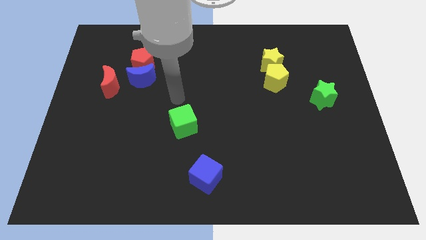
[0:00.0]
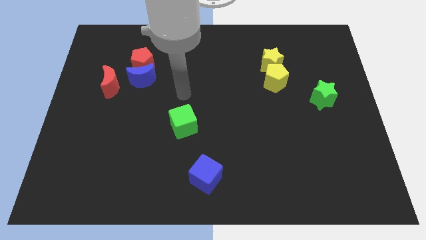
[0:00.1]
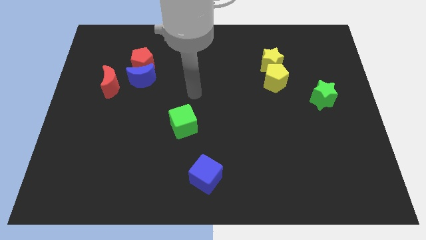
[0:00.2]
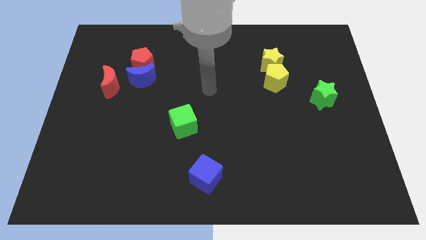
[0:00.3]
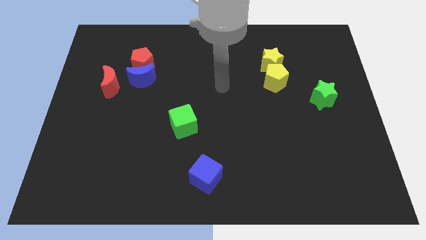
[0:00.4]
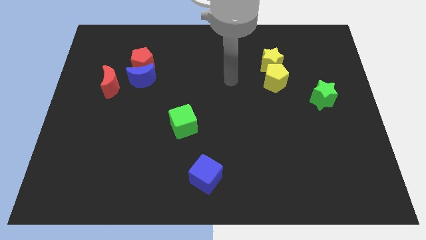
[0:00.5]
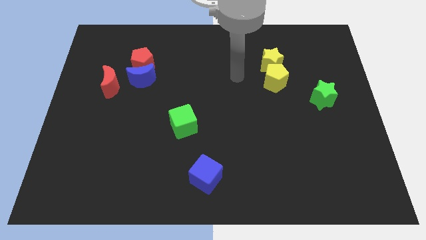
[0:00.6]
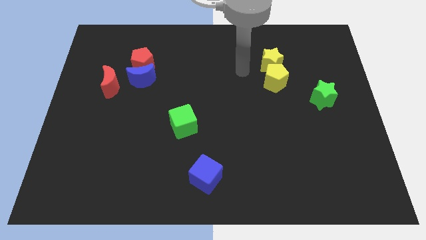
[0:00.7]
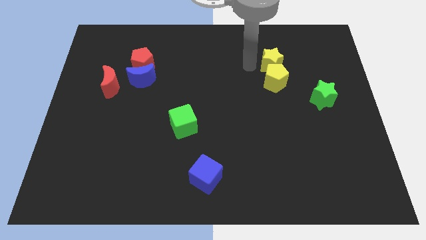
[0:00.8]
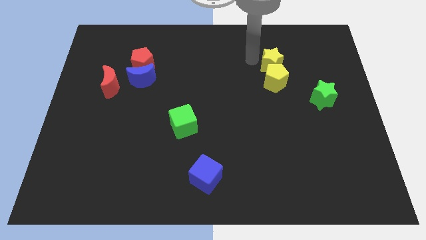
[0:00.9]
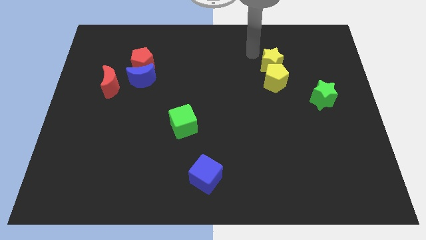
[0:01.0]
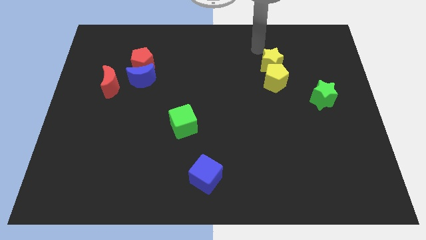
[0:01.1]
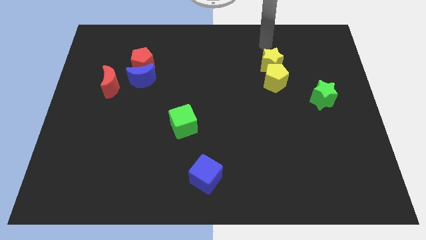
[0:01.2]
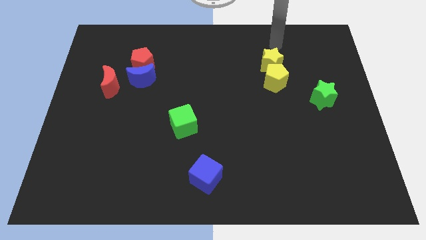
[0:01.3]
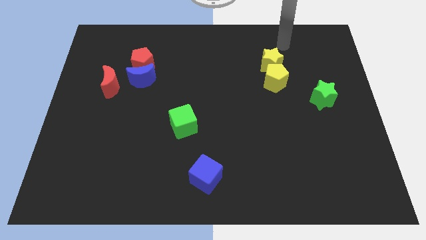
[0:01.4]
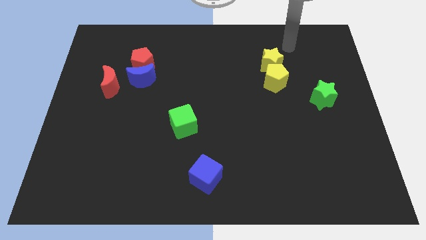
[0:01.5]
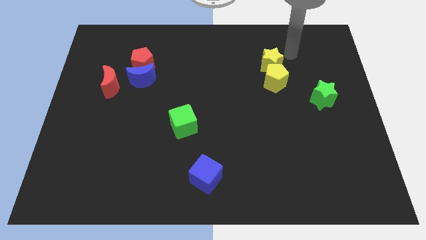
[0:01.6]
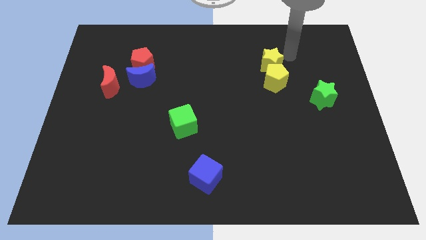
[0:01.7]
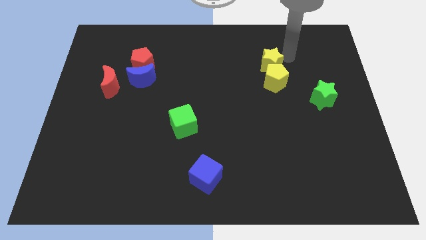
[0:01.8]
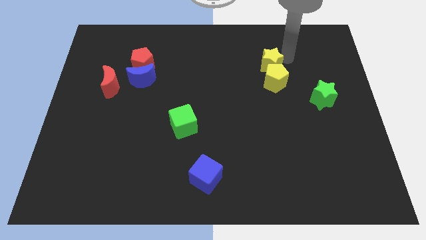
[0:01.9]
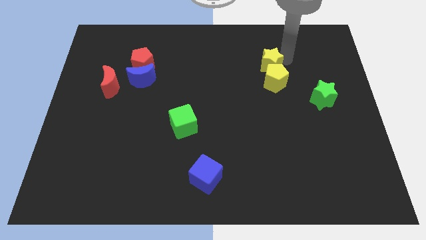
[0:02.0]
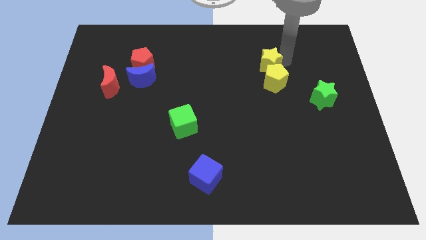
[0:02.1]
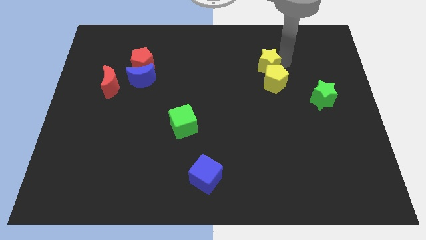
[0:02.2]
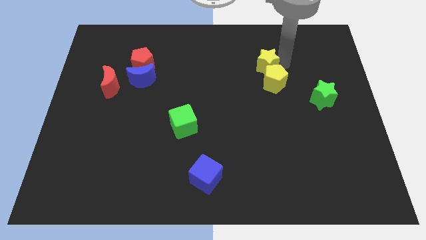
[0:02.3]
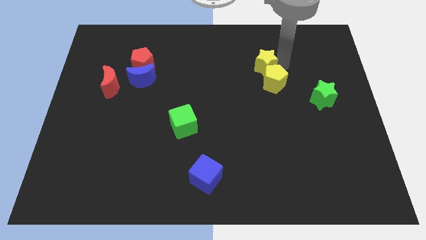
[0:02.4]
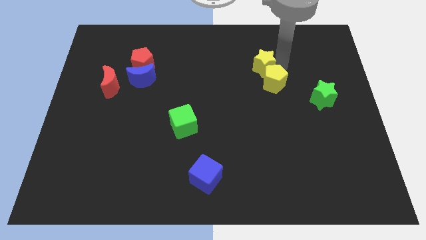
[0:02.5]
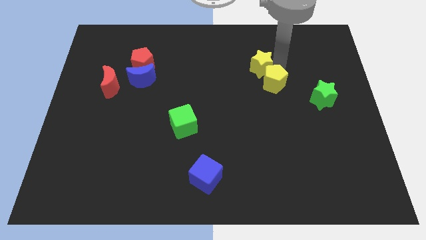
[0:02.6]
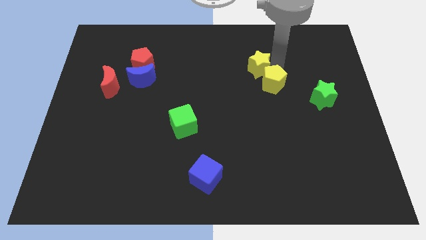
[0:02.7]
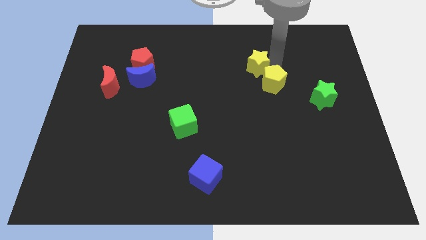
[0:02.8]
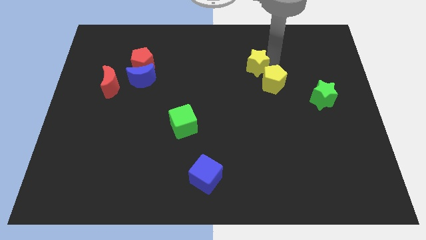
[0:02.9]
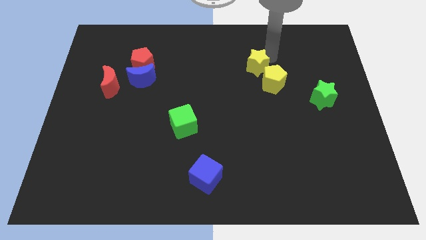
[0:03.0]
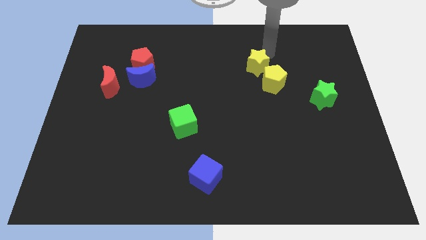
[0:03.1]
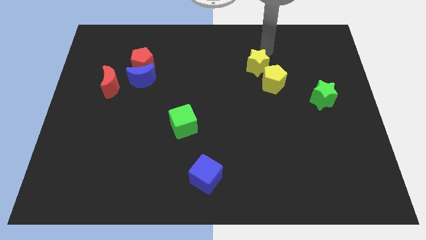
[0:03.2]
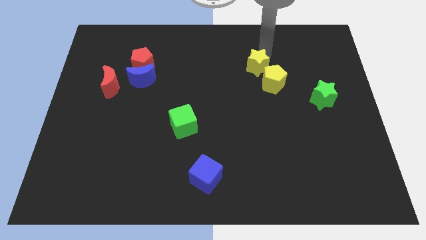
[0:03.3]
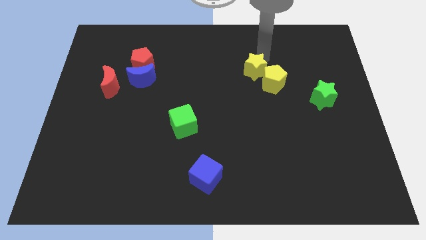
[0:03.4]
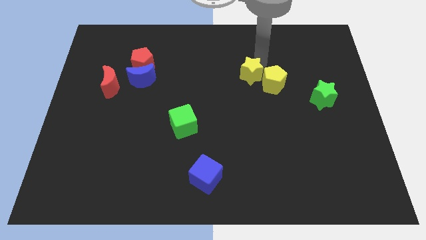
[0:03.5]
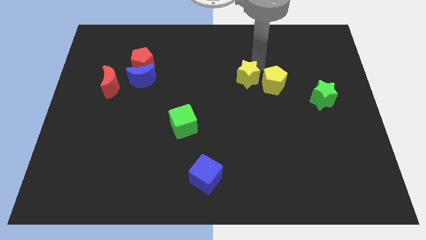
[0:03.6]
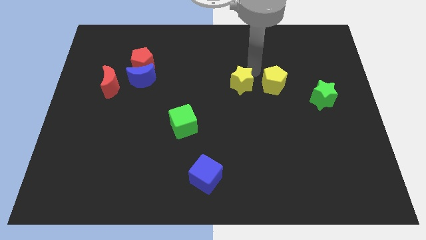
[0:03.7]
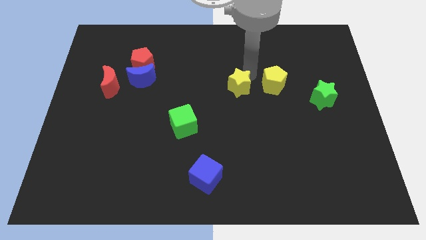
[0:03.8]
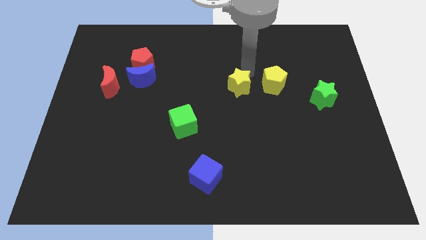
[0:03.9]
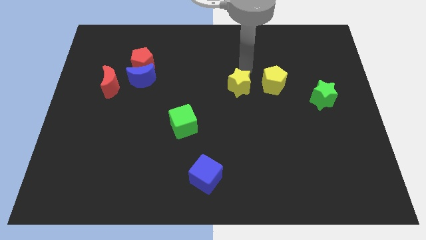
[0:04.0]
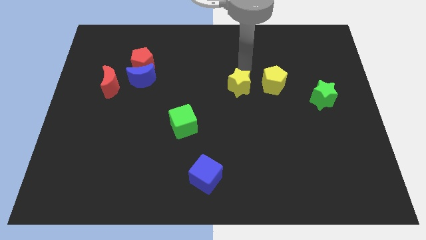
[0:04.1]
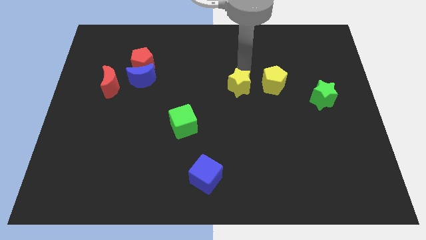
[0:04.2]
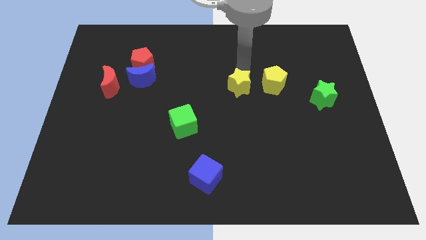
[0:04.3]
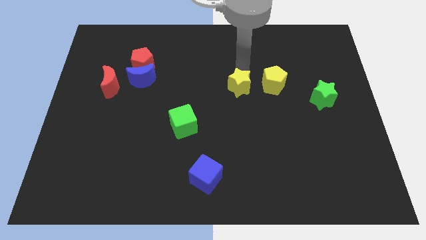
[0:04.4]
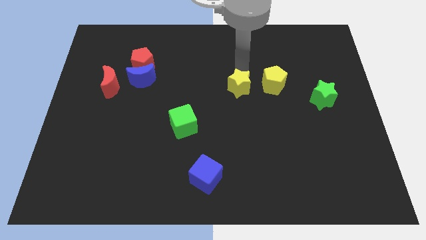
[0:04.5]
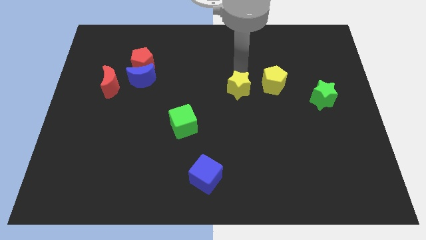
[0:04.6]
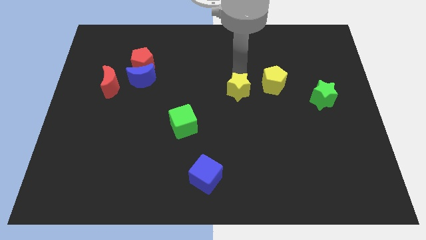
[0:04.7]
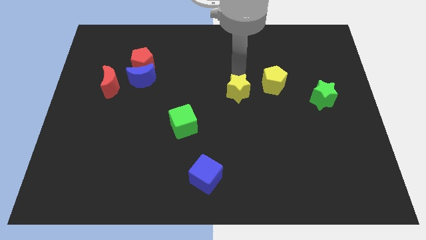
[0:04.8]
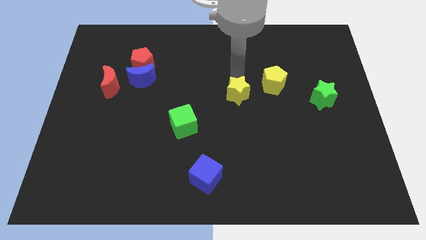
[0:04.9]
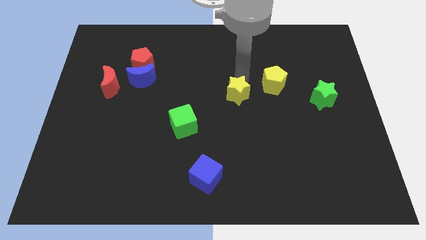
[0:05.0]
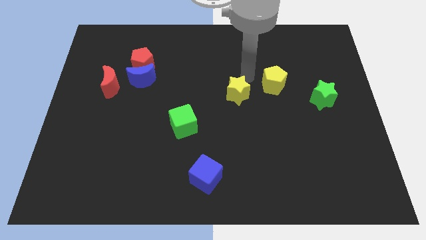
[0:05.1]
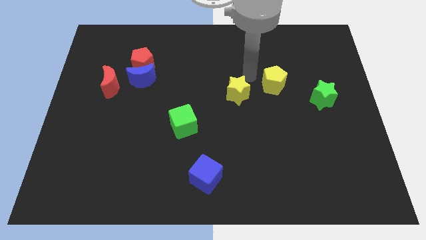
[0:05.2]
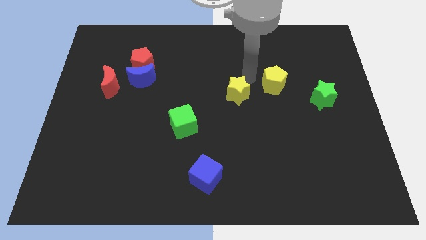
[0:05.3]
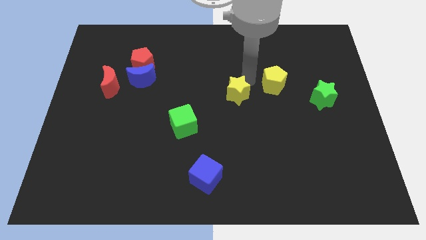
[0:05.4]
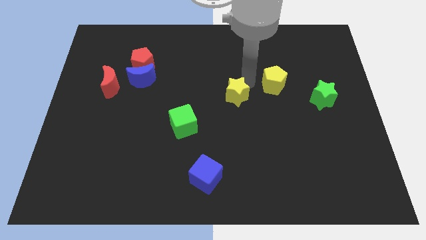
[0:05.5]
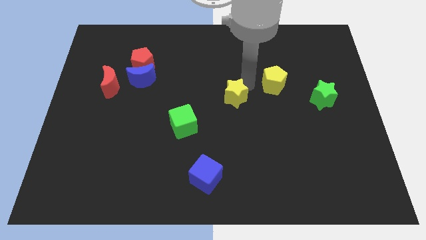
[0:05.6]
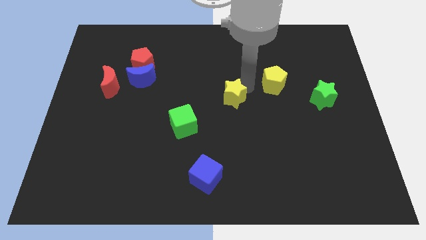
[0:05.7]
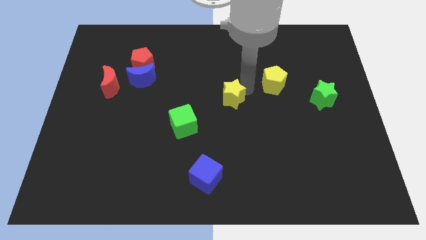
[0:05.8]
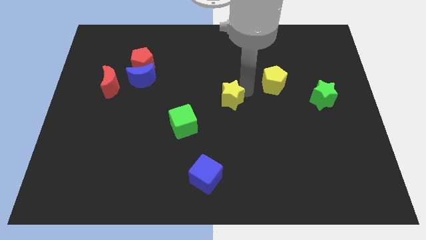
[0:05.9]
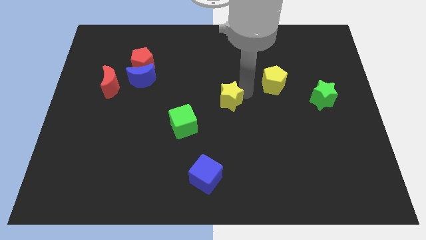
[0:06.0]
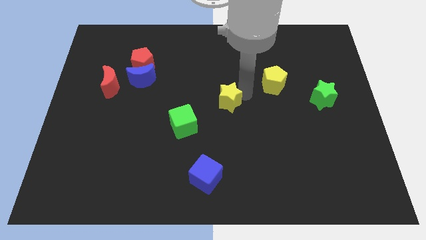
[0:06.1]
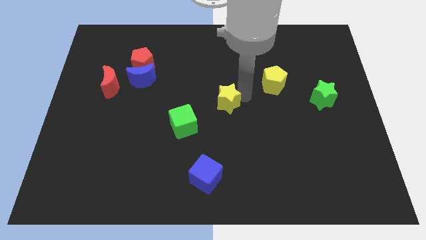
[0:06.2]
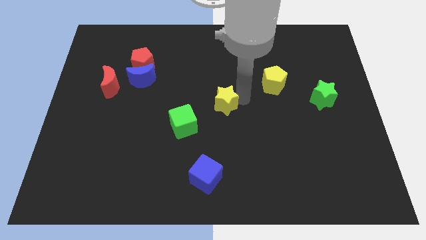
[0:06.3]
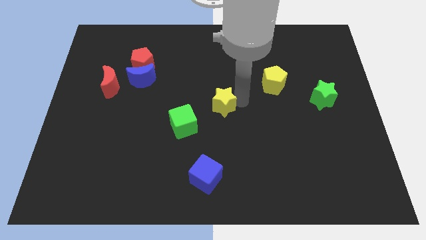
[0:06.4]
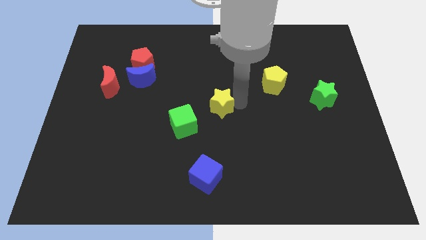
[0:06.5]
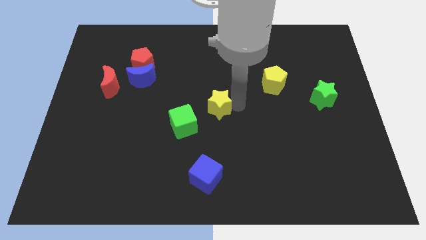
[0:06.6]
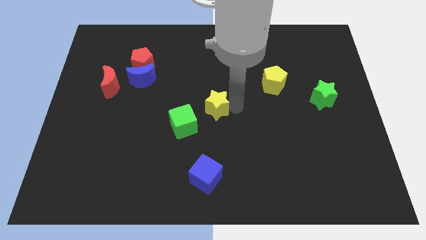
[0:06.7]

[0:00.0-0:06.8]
move the yellow star down and to the left

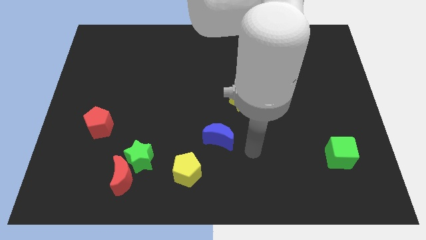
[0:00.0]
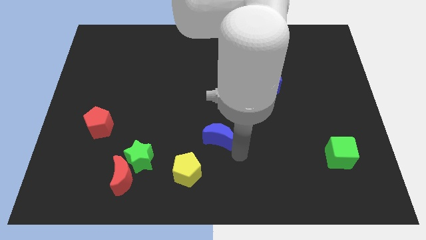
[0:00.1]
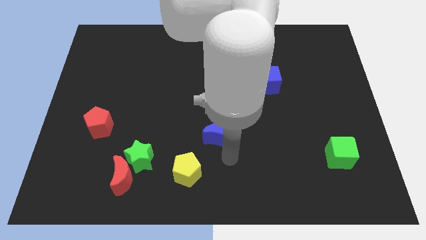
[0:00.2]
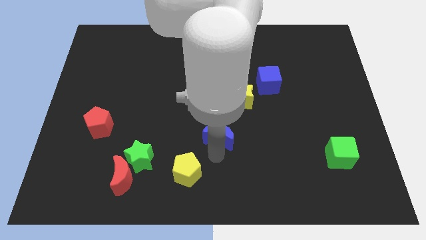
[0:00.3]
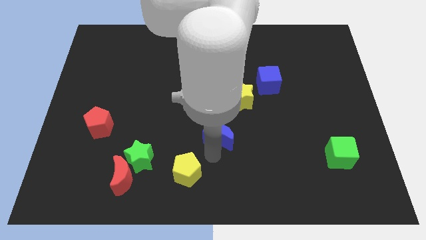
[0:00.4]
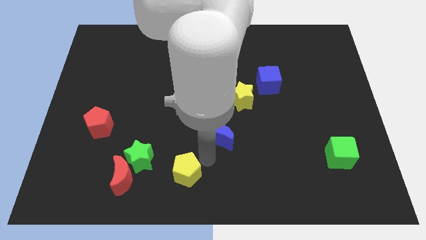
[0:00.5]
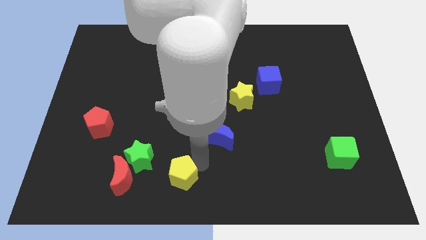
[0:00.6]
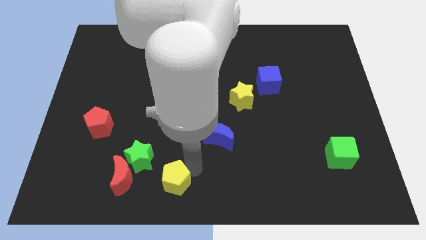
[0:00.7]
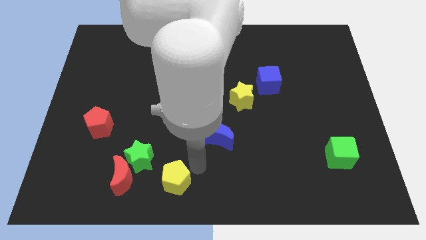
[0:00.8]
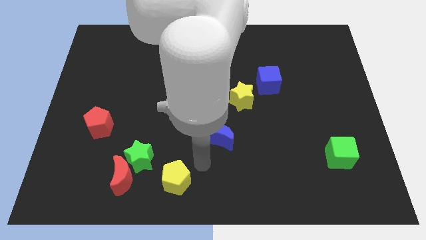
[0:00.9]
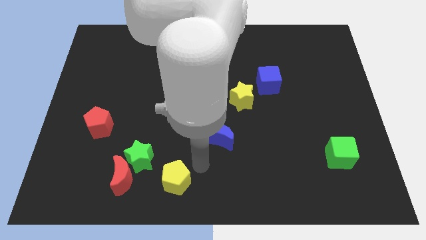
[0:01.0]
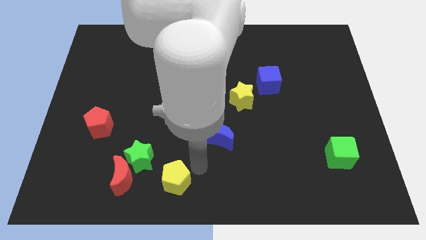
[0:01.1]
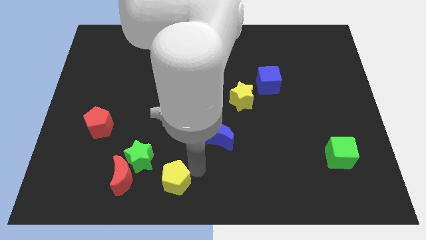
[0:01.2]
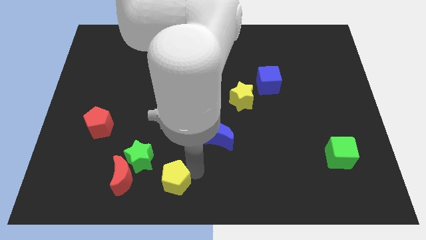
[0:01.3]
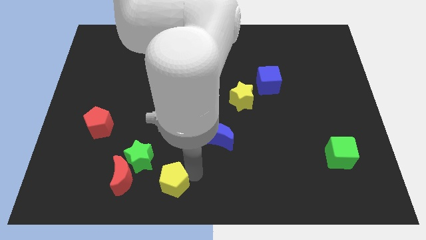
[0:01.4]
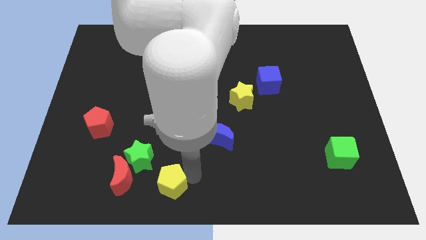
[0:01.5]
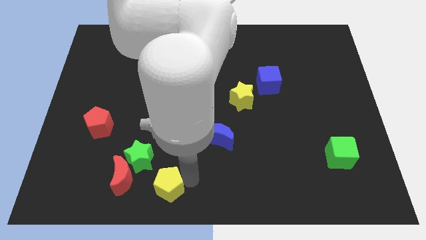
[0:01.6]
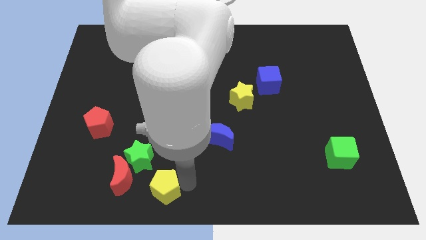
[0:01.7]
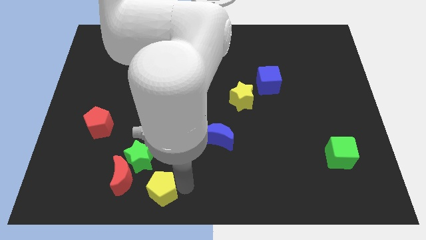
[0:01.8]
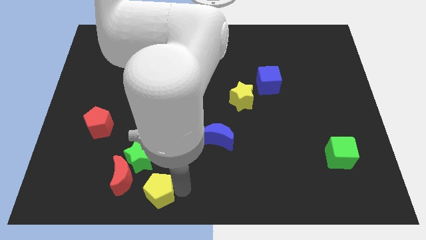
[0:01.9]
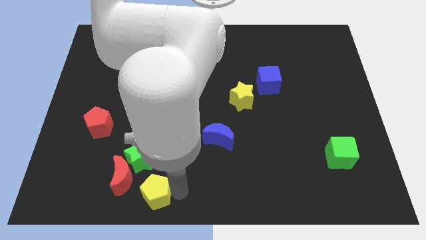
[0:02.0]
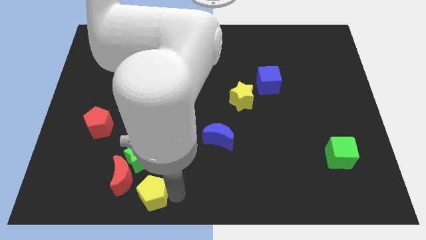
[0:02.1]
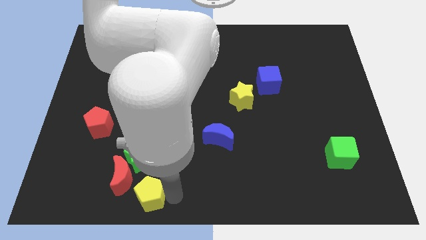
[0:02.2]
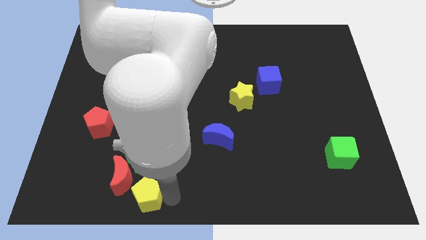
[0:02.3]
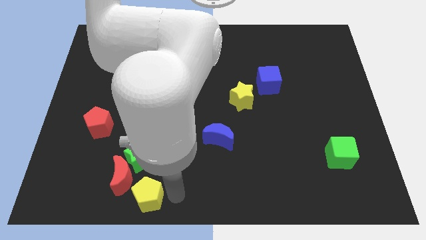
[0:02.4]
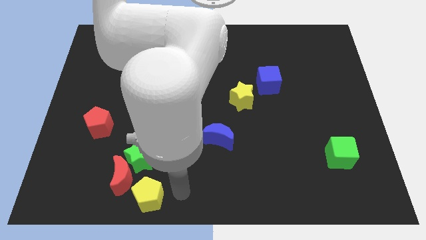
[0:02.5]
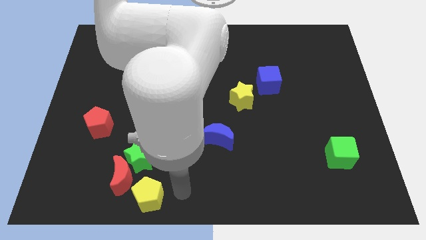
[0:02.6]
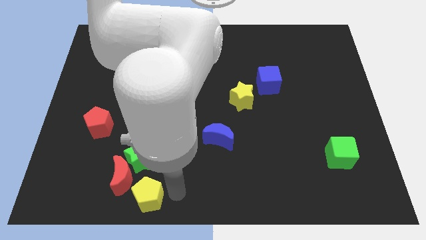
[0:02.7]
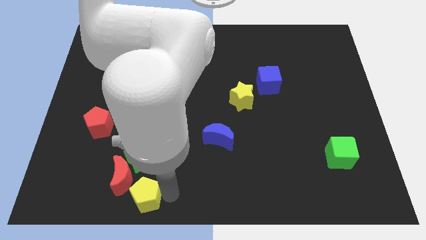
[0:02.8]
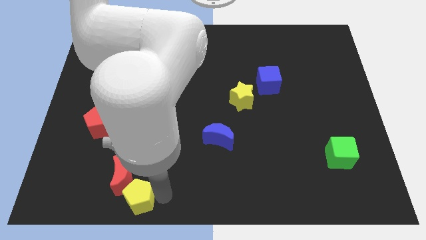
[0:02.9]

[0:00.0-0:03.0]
push the yellow pentagon slightly to the left
